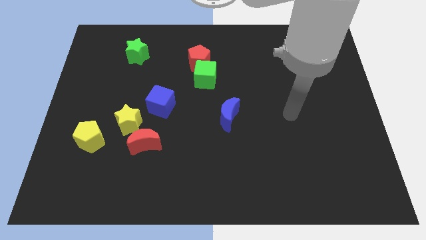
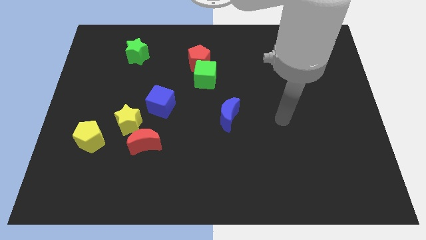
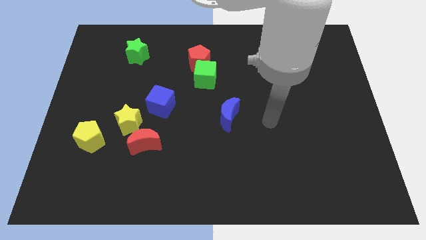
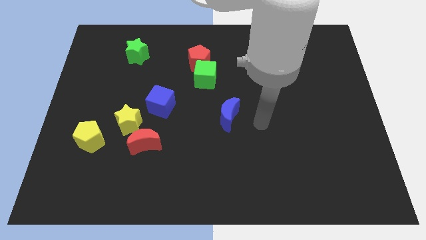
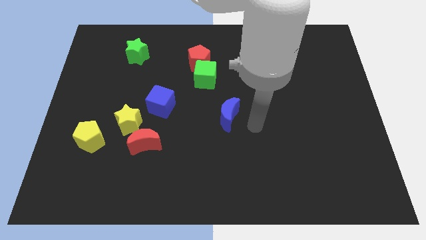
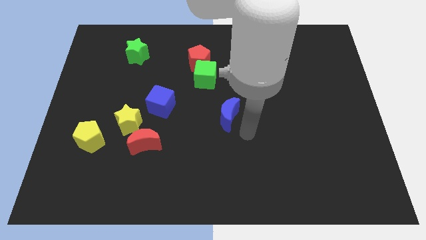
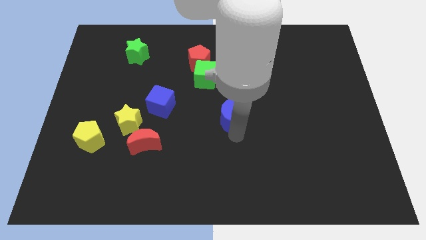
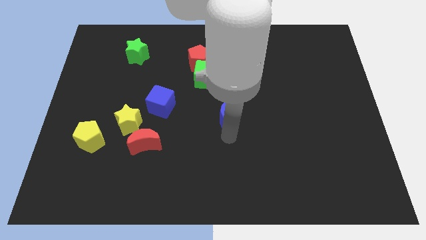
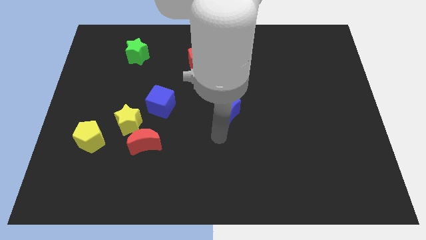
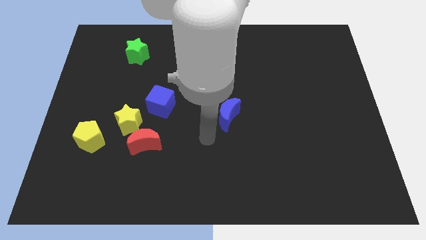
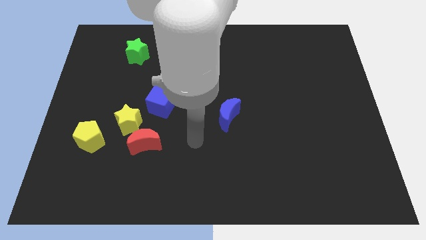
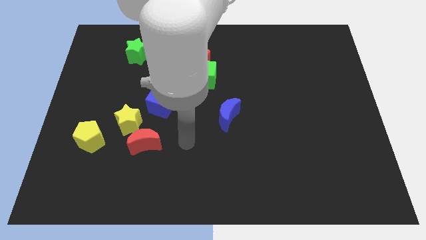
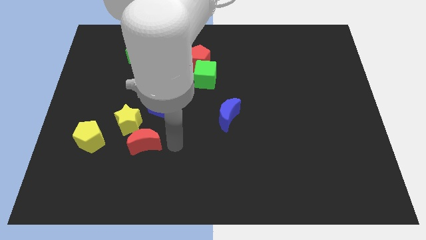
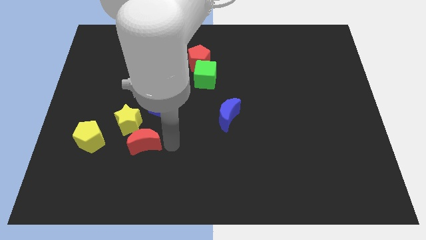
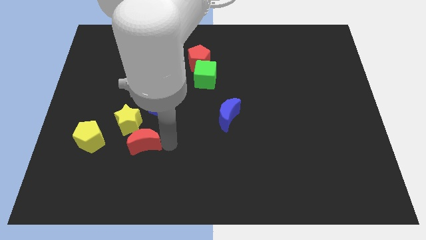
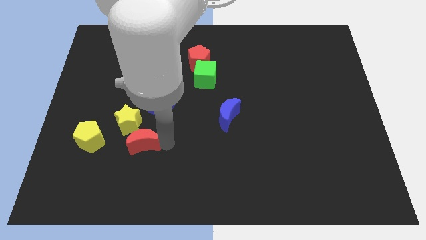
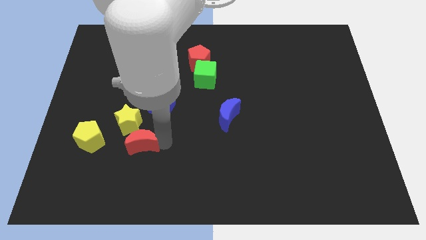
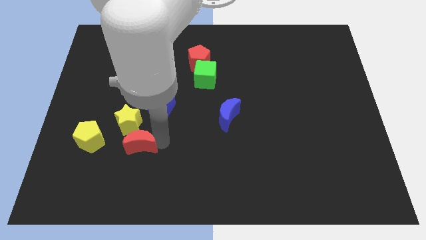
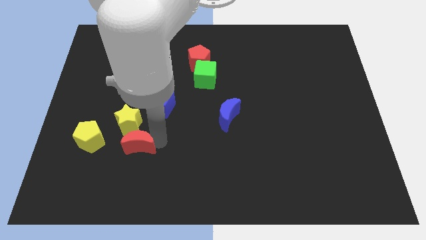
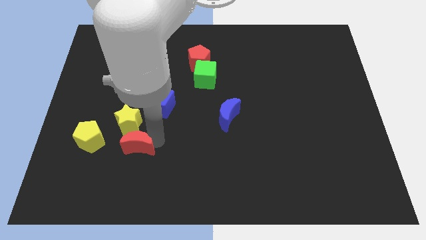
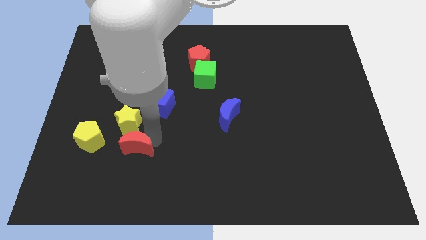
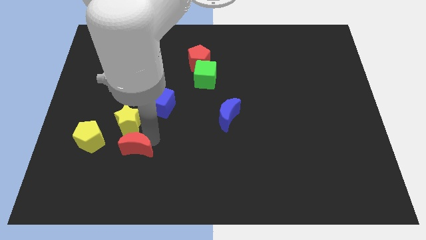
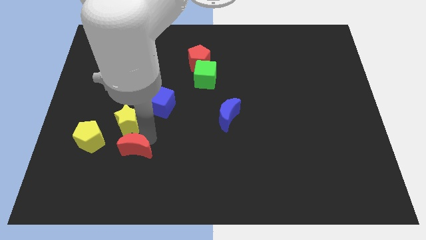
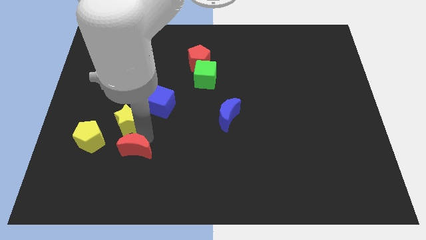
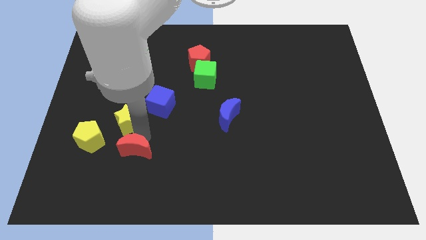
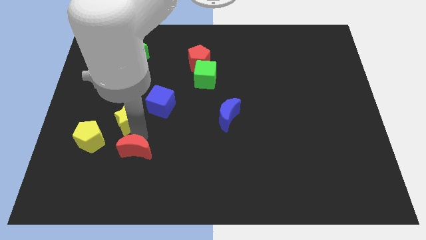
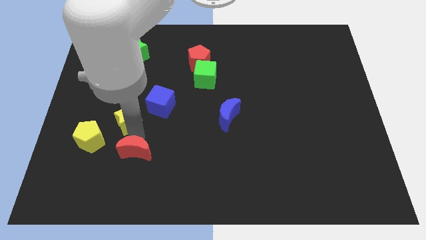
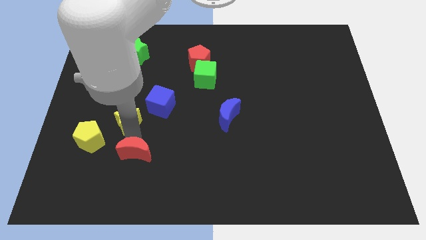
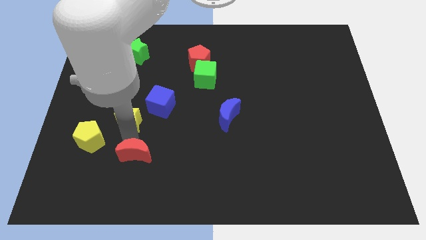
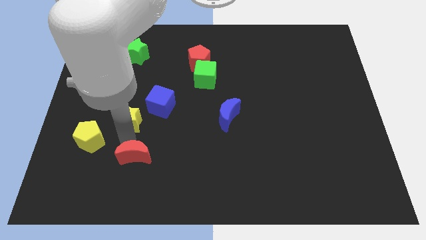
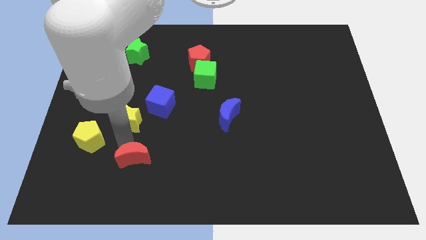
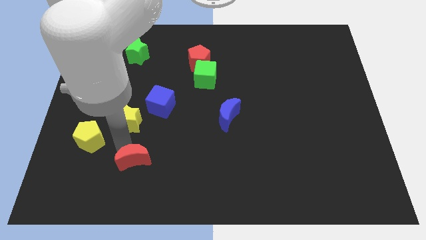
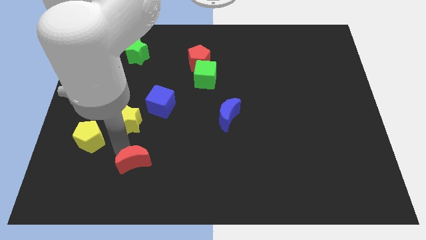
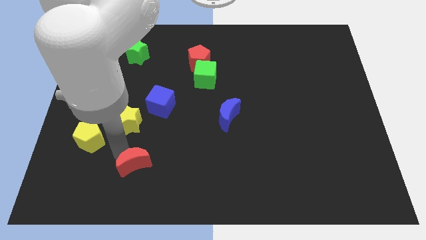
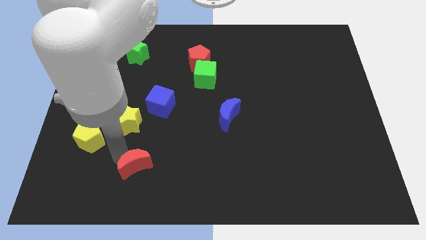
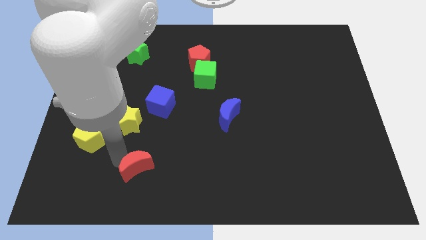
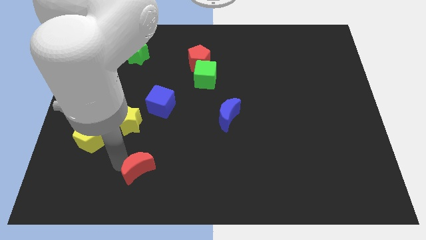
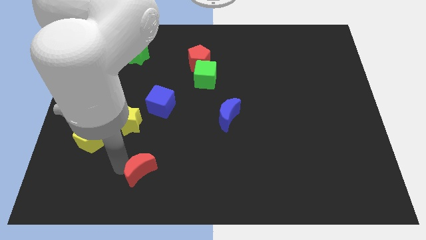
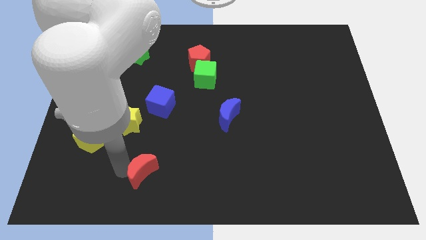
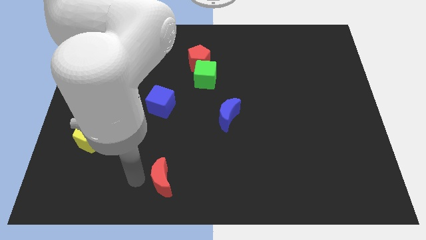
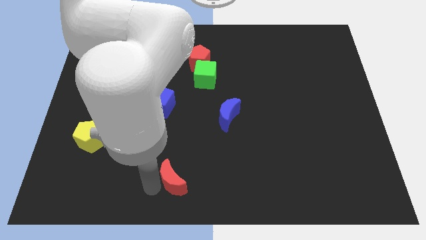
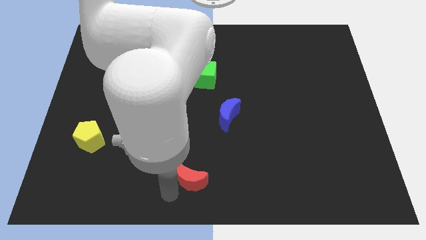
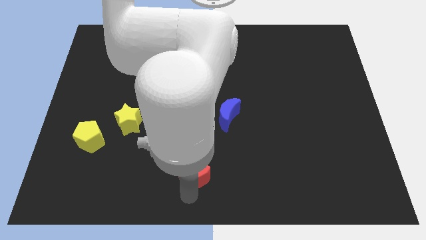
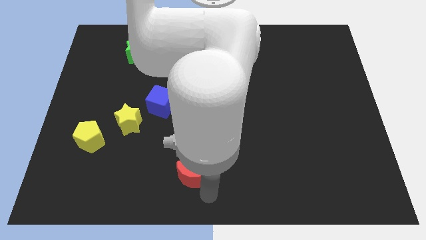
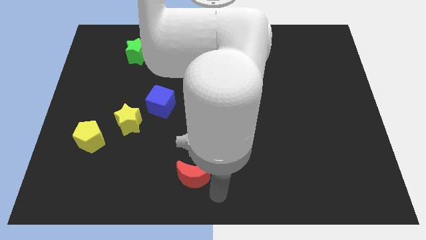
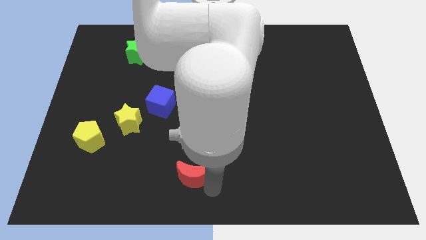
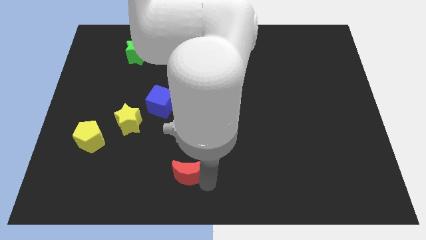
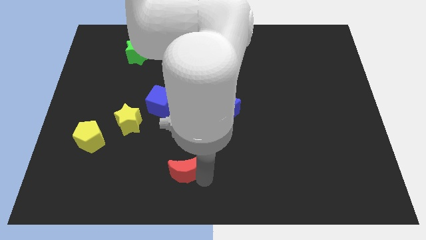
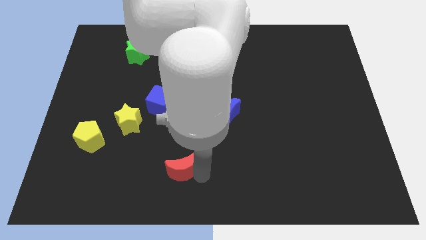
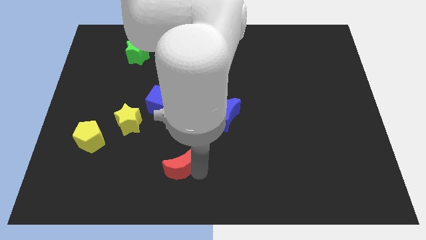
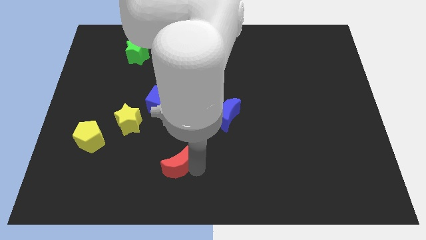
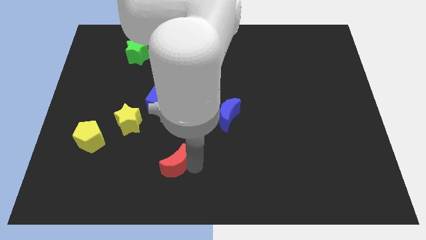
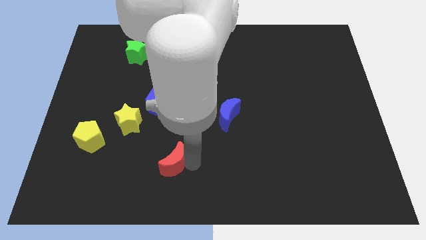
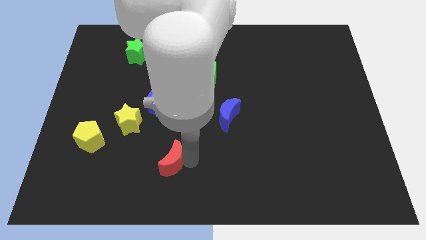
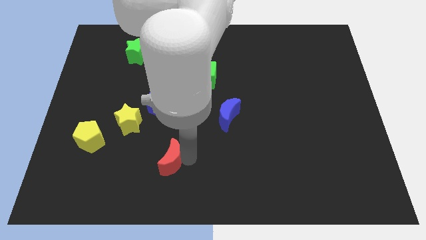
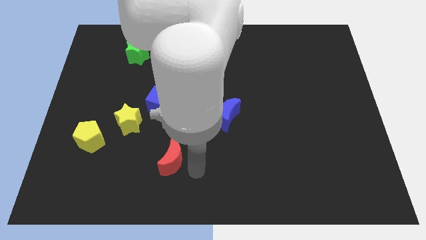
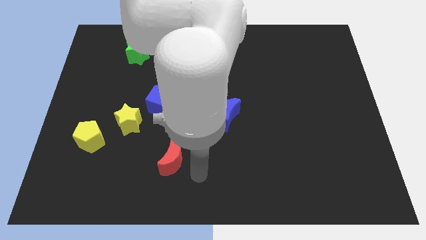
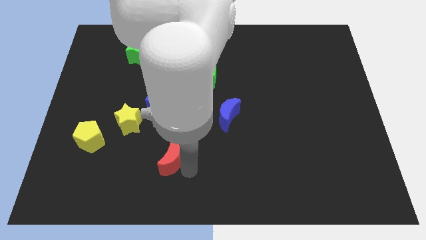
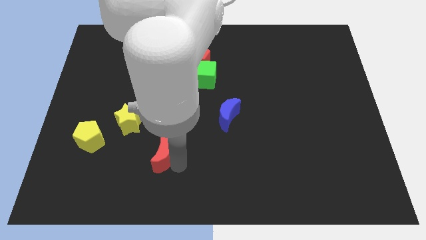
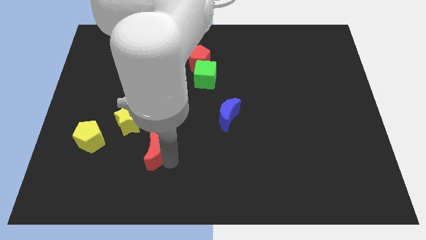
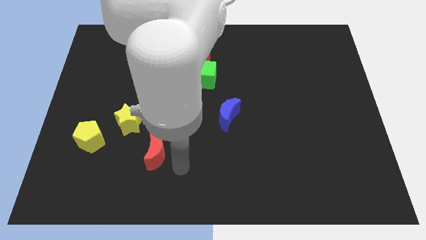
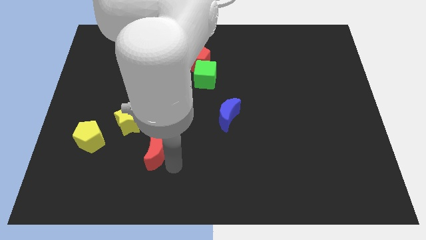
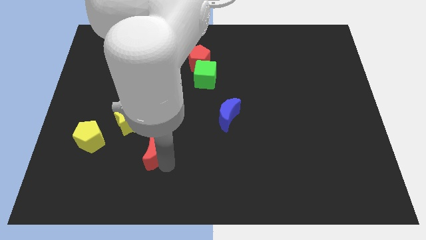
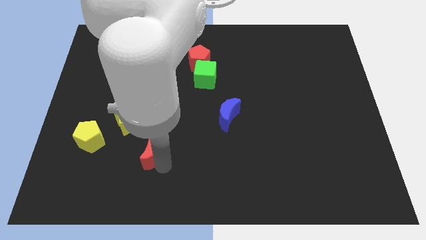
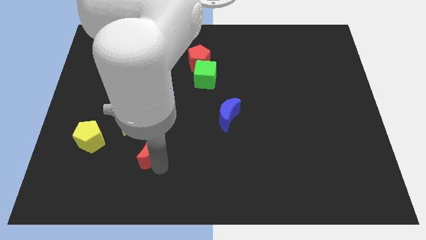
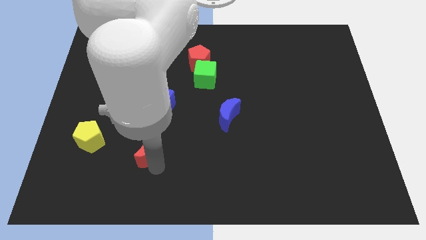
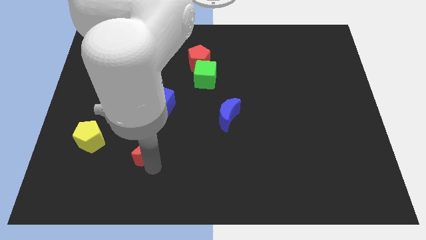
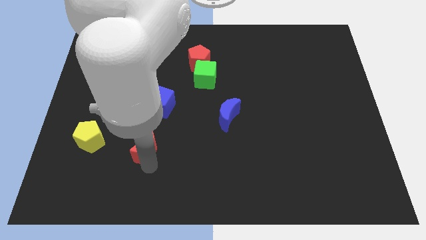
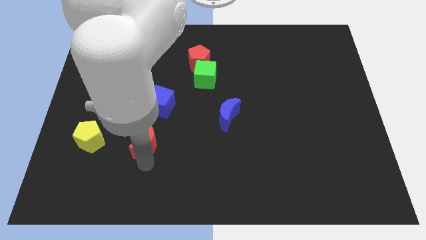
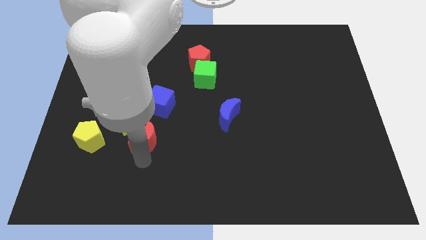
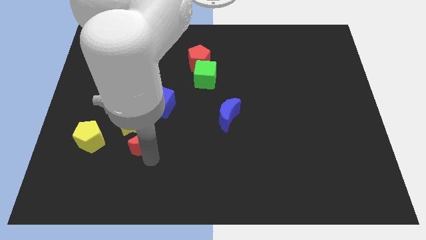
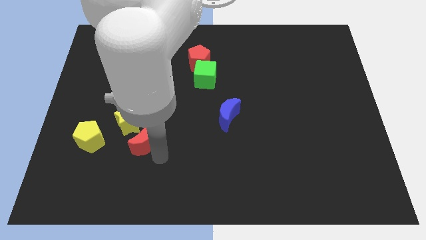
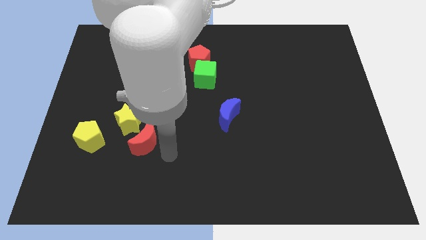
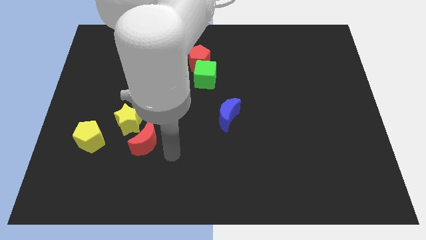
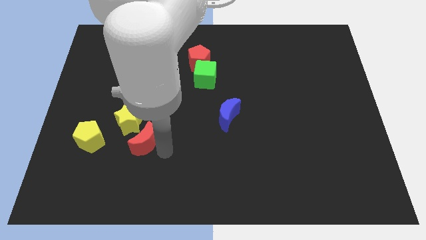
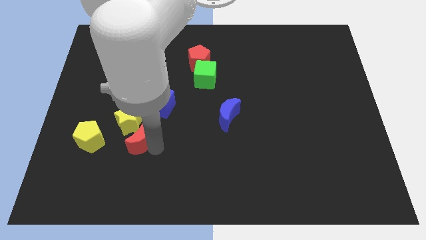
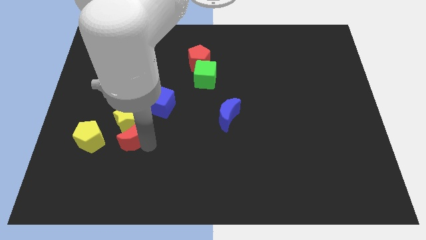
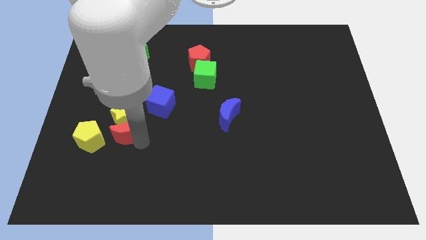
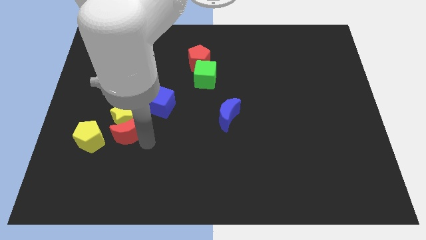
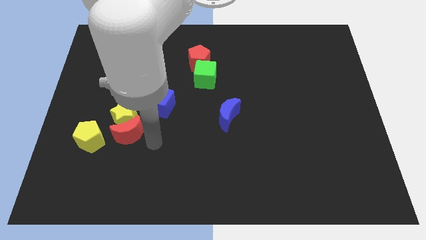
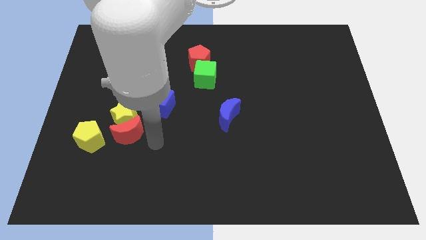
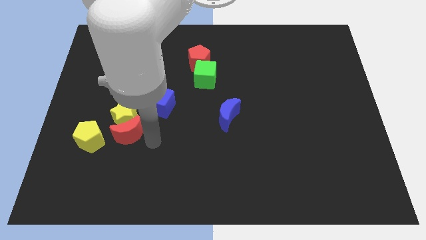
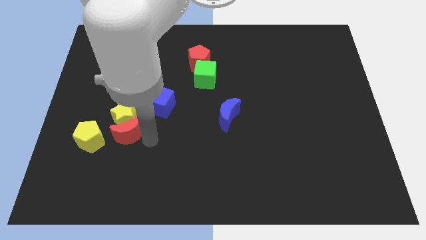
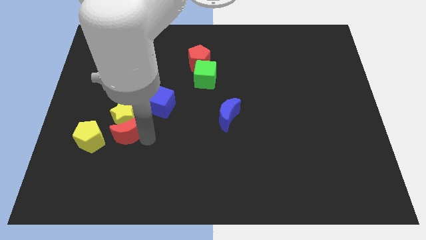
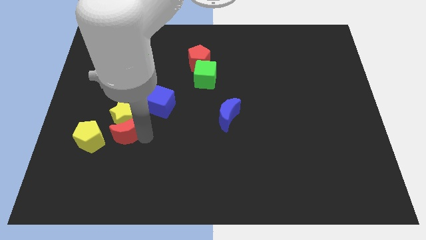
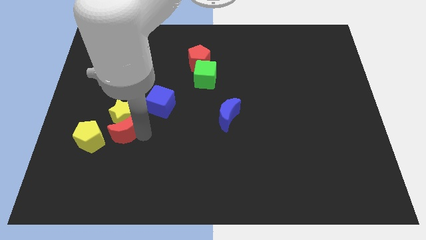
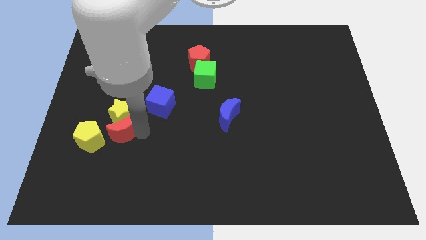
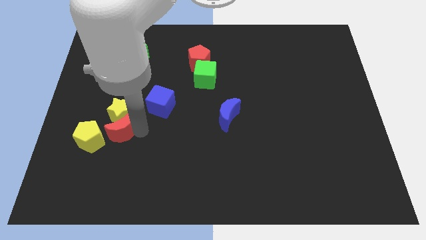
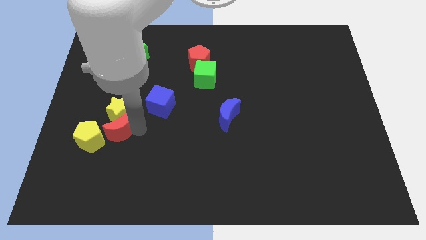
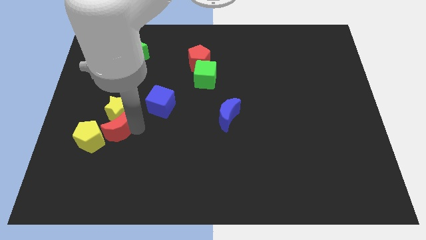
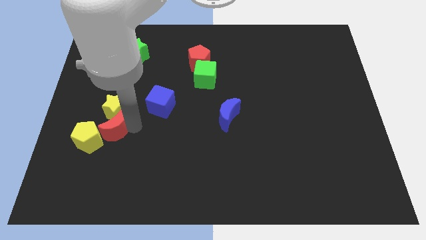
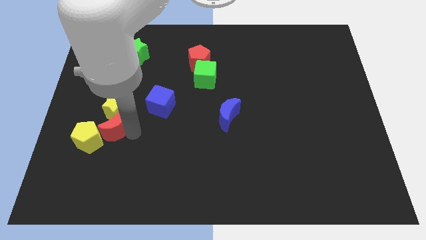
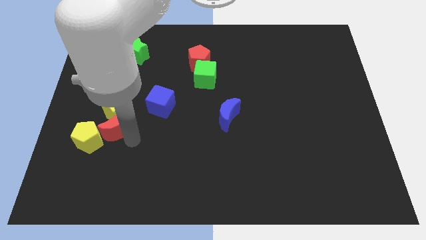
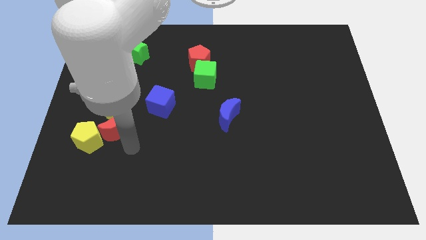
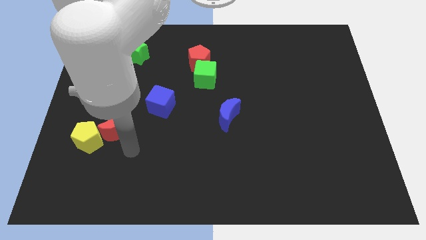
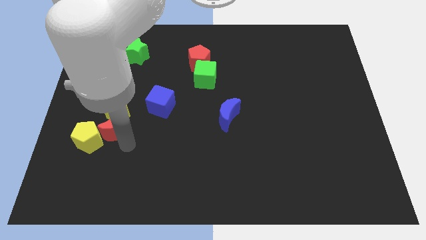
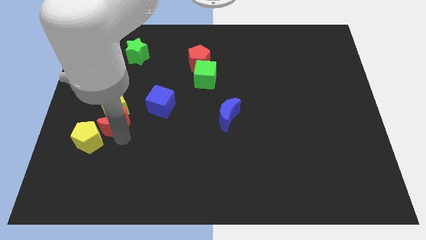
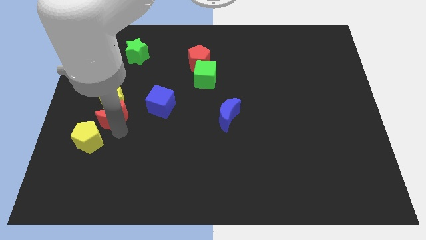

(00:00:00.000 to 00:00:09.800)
put the red moon to the top side of the yellow pentagon
